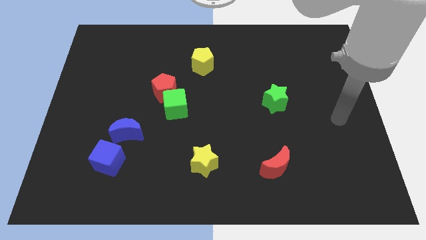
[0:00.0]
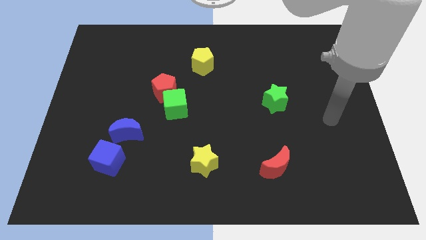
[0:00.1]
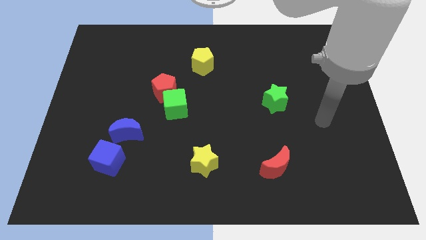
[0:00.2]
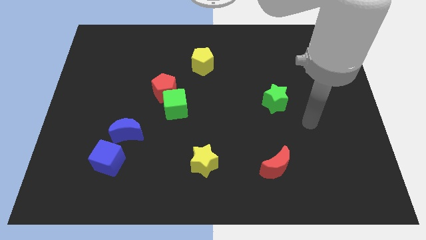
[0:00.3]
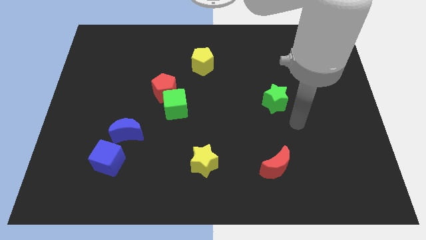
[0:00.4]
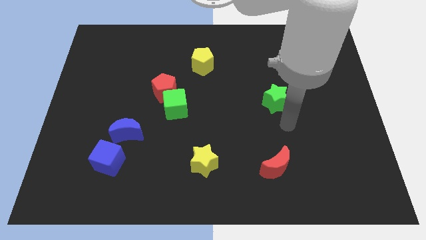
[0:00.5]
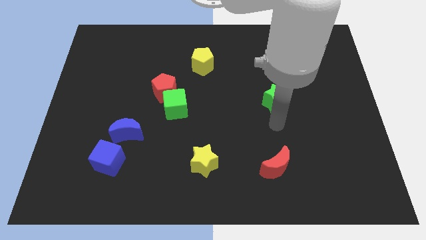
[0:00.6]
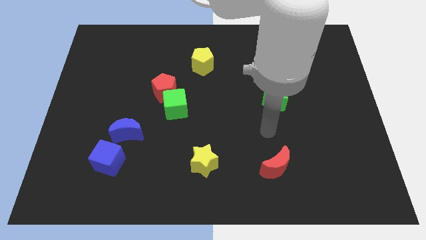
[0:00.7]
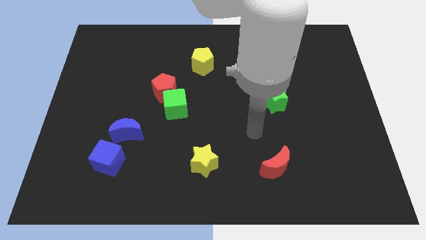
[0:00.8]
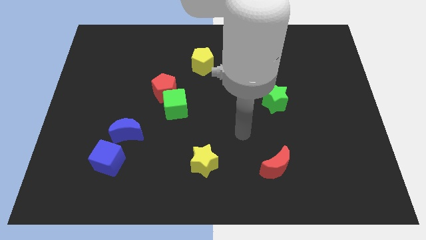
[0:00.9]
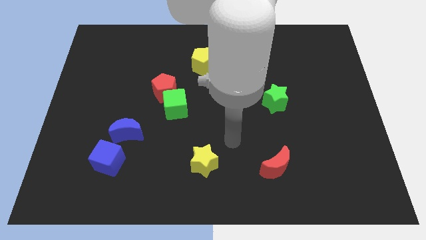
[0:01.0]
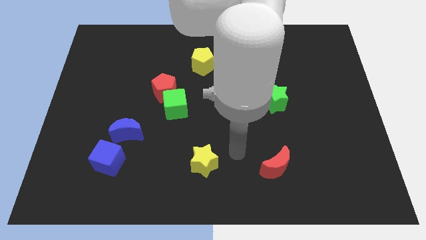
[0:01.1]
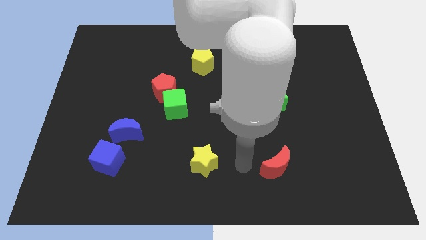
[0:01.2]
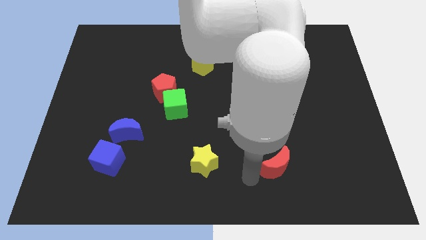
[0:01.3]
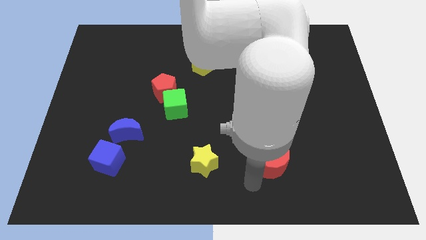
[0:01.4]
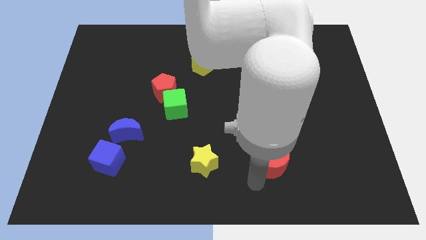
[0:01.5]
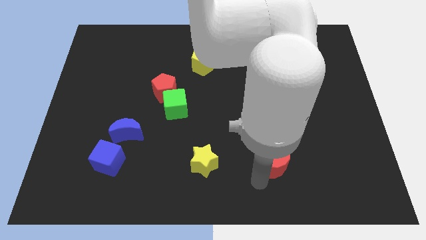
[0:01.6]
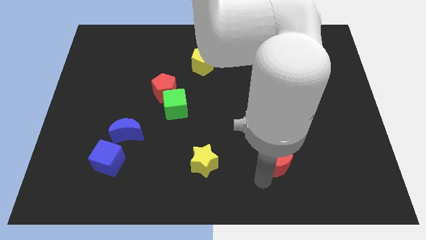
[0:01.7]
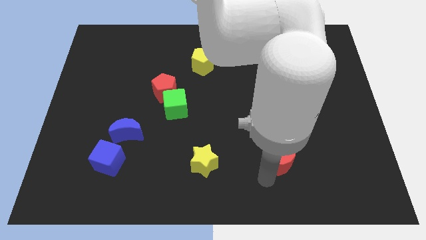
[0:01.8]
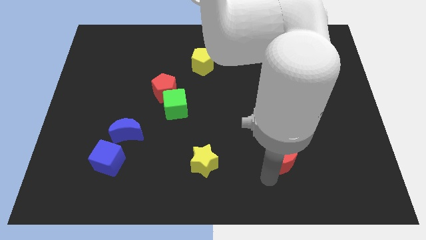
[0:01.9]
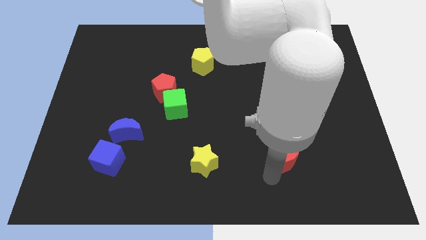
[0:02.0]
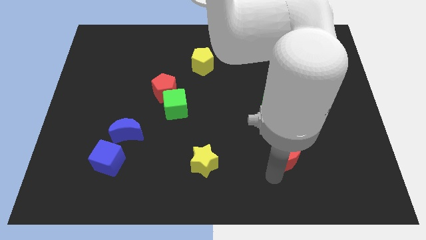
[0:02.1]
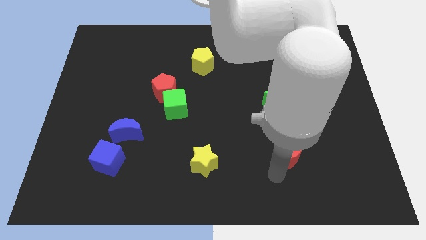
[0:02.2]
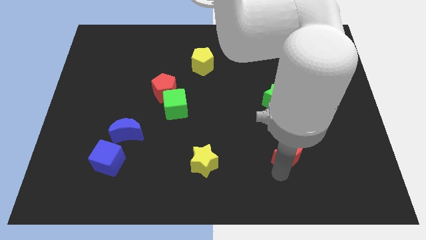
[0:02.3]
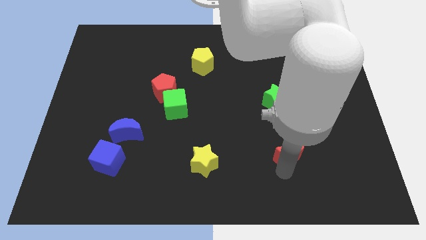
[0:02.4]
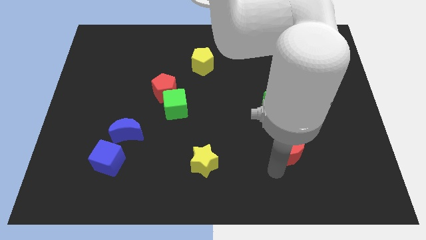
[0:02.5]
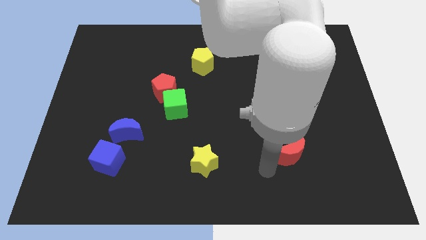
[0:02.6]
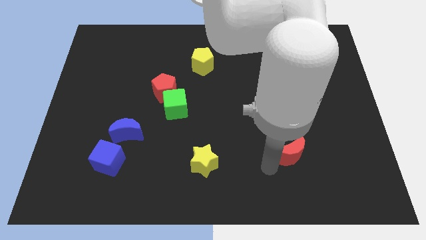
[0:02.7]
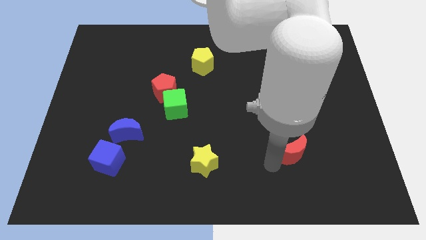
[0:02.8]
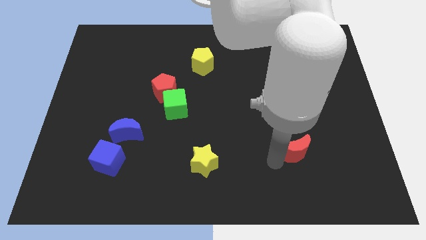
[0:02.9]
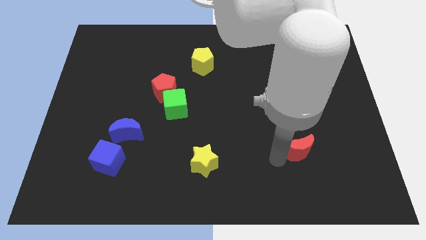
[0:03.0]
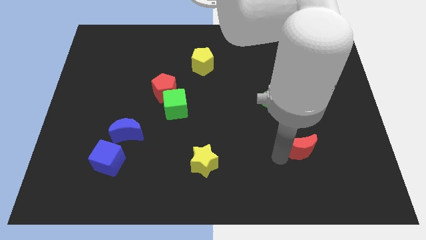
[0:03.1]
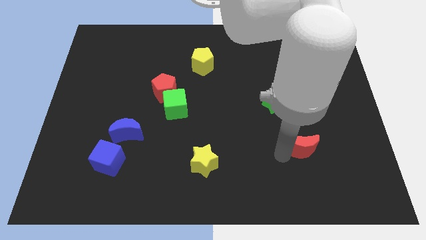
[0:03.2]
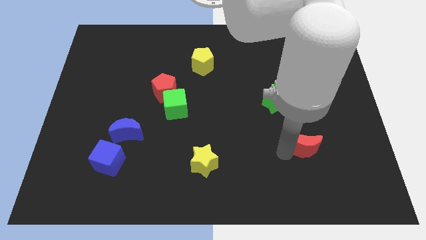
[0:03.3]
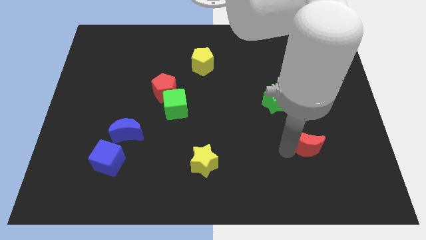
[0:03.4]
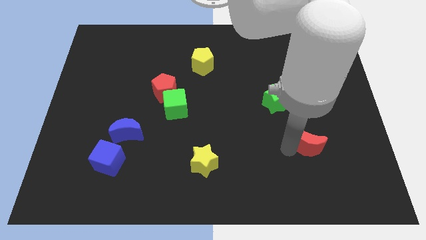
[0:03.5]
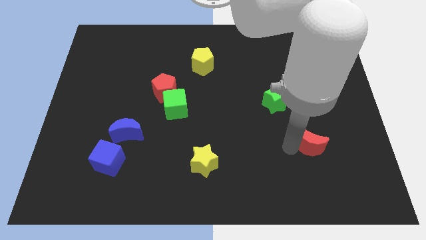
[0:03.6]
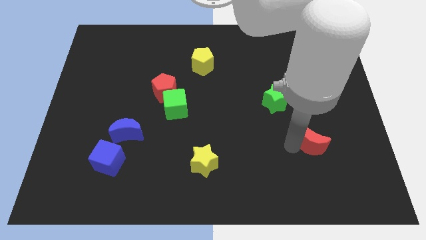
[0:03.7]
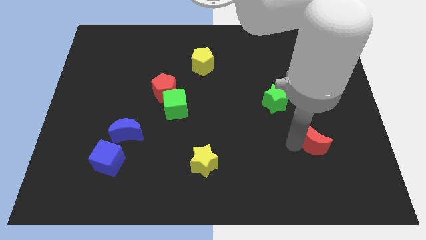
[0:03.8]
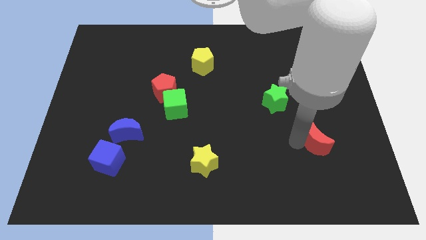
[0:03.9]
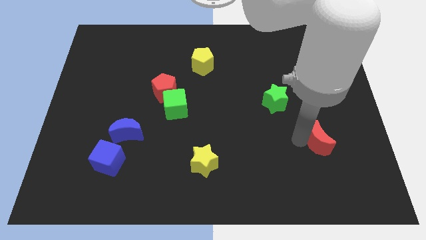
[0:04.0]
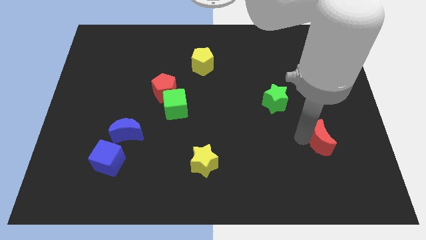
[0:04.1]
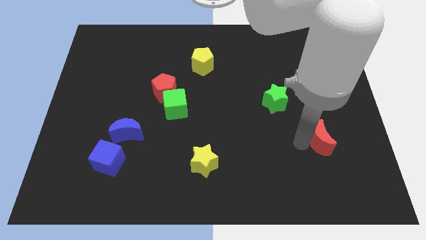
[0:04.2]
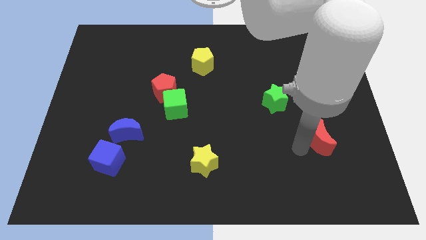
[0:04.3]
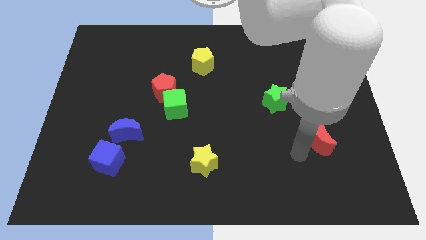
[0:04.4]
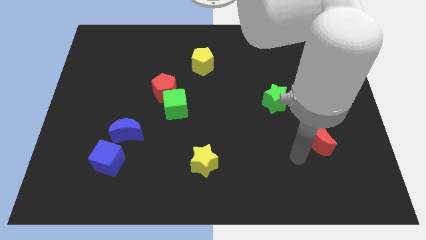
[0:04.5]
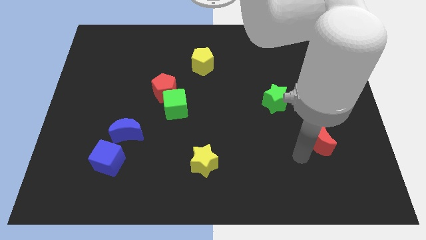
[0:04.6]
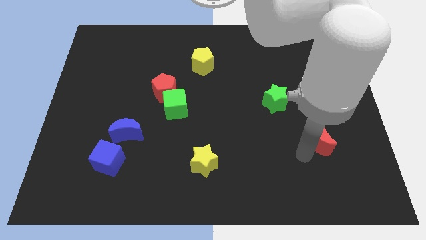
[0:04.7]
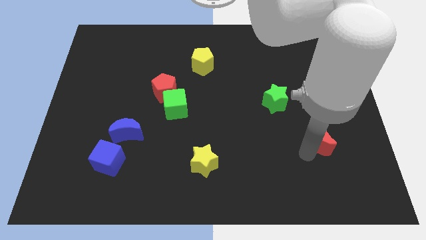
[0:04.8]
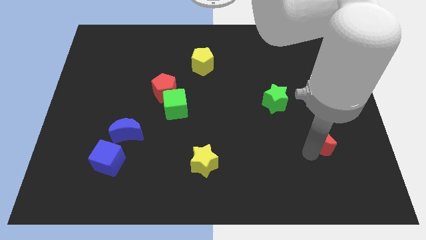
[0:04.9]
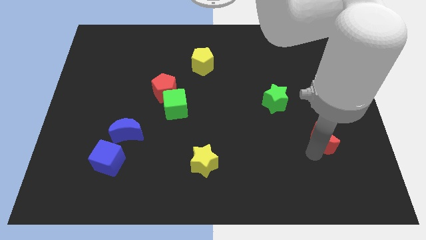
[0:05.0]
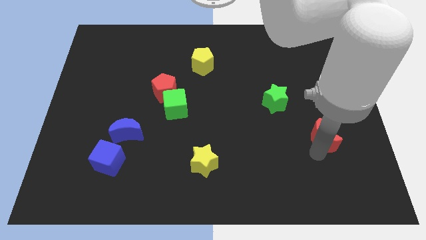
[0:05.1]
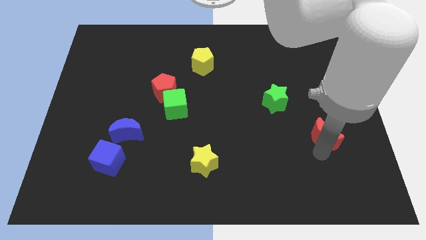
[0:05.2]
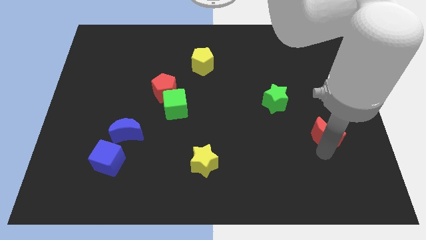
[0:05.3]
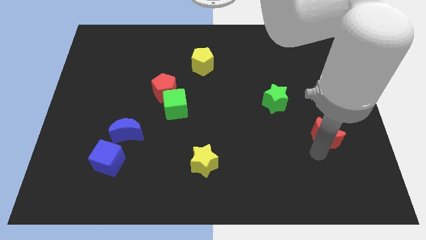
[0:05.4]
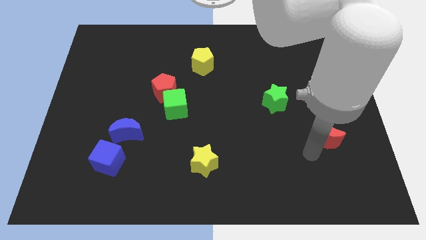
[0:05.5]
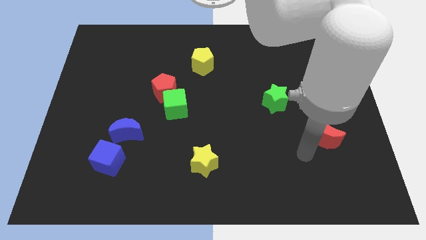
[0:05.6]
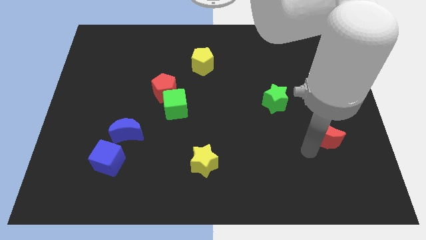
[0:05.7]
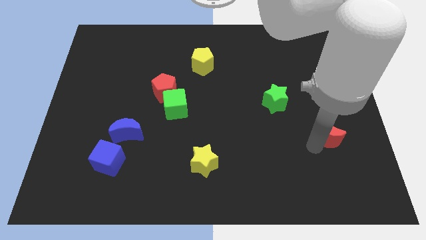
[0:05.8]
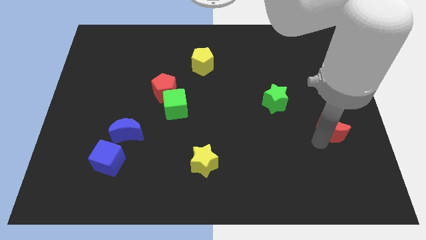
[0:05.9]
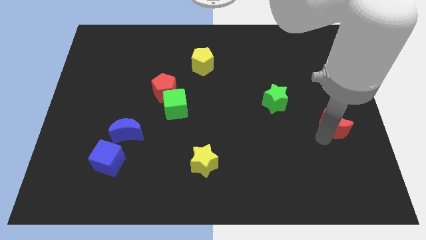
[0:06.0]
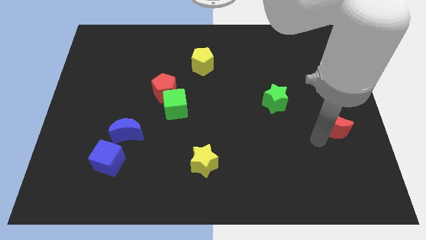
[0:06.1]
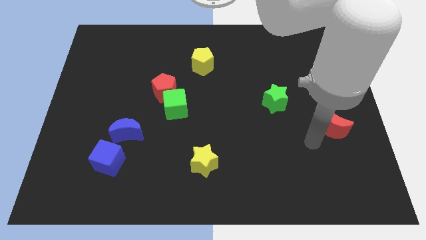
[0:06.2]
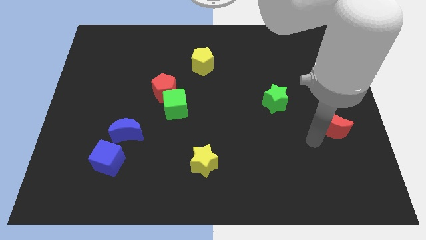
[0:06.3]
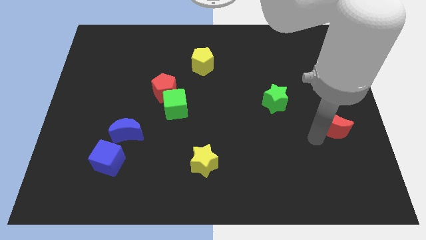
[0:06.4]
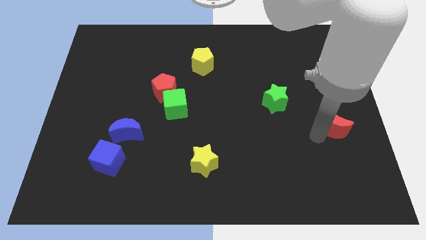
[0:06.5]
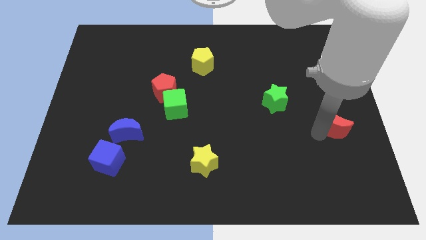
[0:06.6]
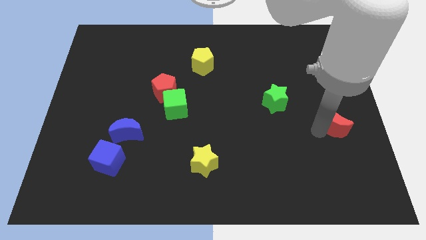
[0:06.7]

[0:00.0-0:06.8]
push the red moon to the right side of the board
